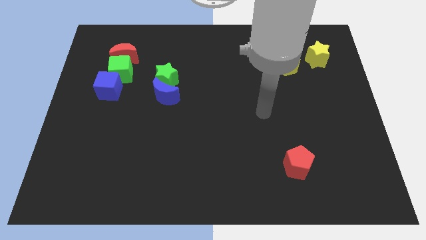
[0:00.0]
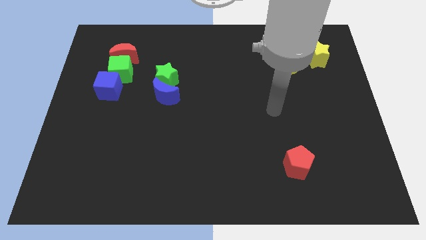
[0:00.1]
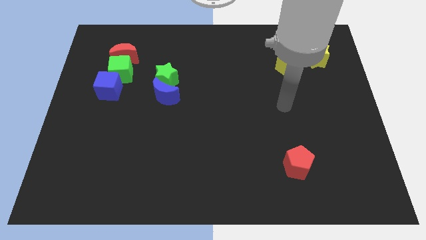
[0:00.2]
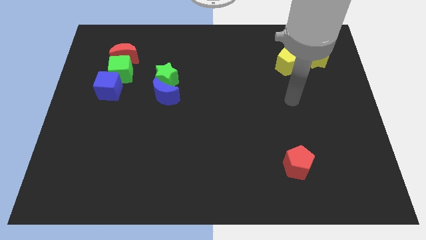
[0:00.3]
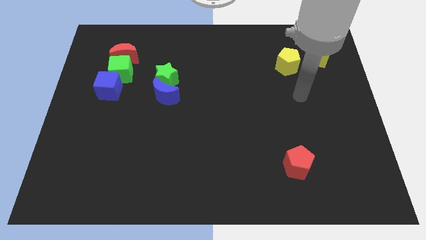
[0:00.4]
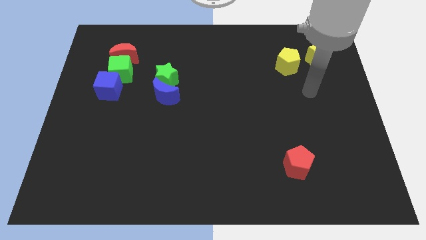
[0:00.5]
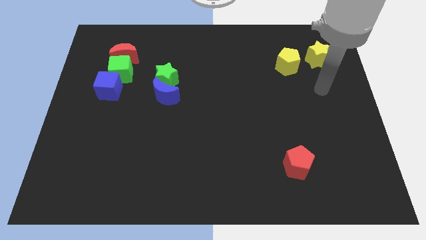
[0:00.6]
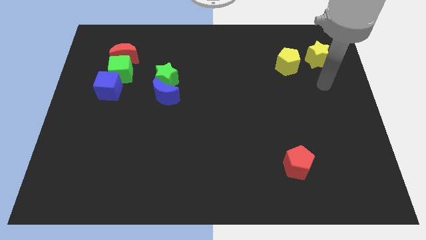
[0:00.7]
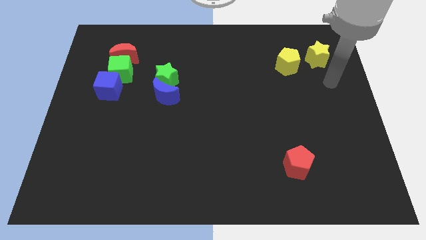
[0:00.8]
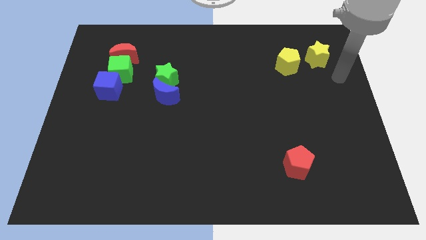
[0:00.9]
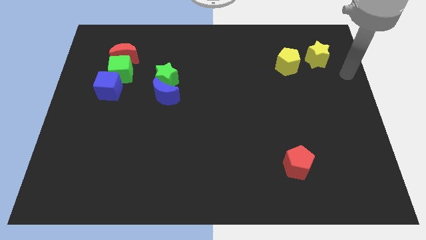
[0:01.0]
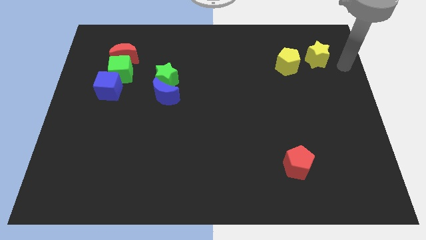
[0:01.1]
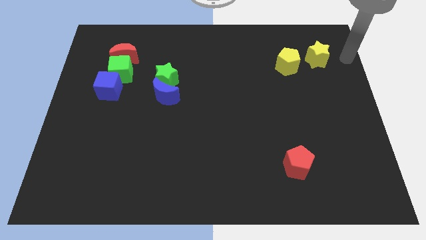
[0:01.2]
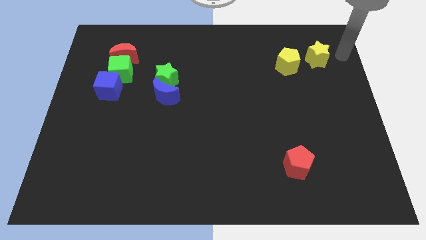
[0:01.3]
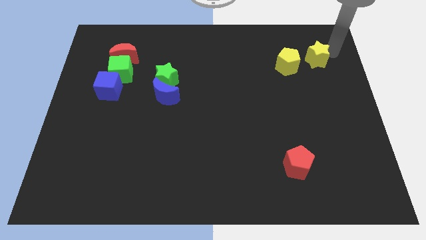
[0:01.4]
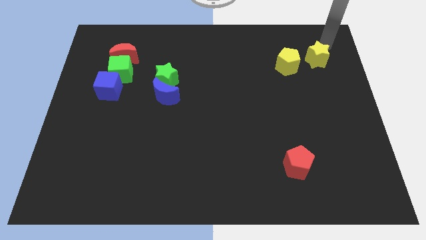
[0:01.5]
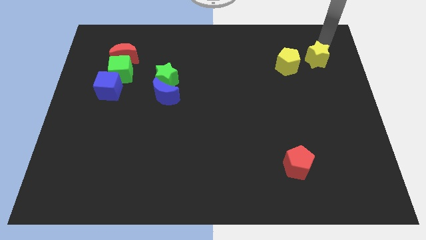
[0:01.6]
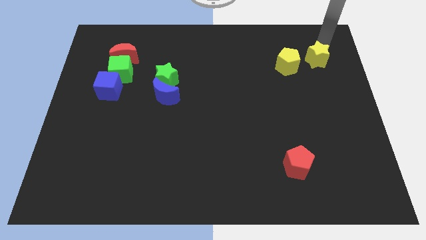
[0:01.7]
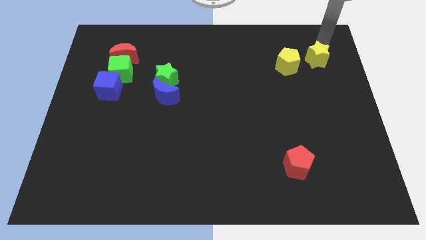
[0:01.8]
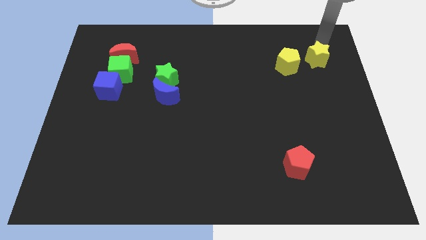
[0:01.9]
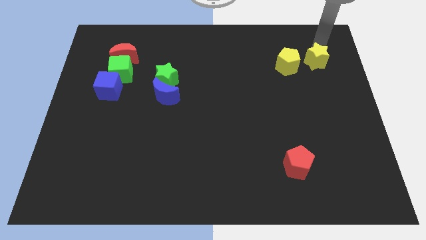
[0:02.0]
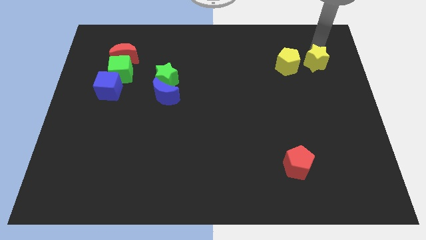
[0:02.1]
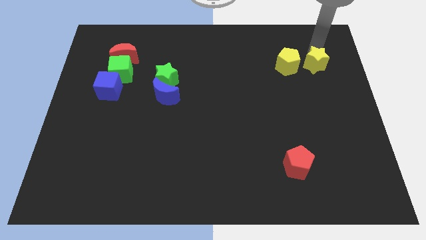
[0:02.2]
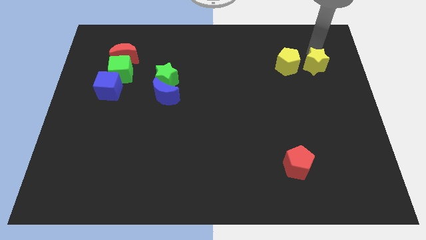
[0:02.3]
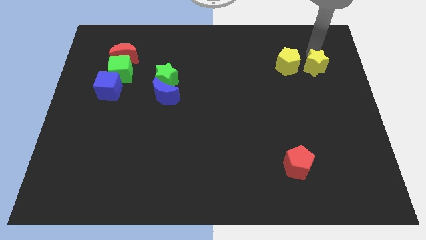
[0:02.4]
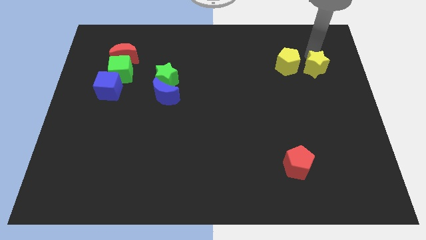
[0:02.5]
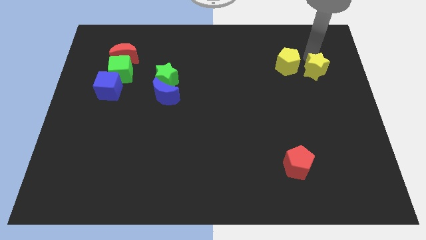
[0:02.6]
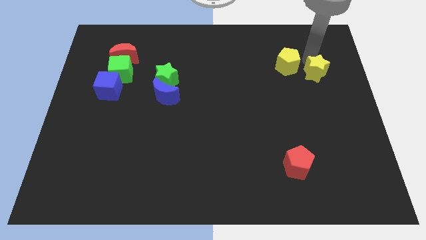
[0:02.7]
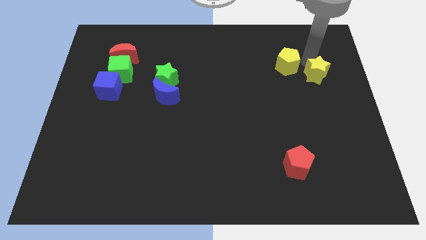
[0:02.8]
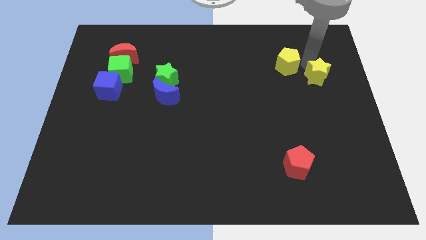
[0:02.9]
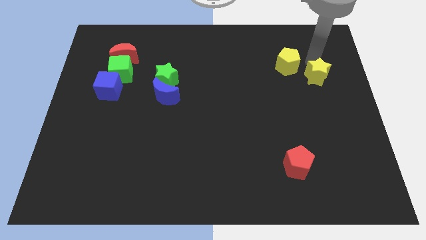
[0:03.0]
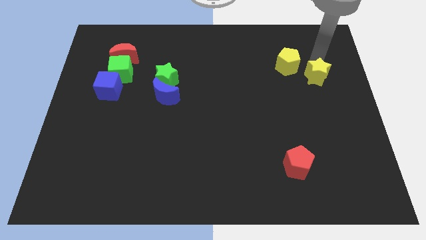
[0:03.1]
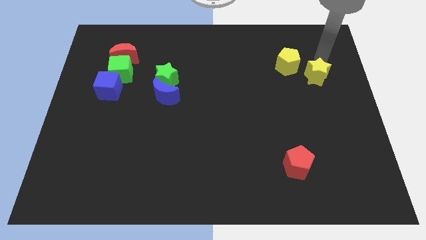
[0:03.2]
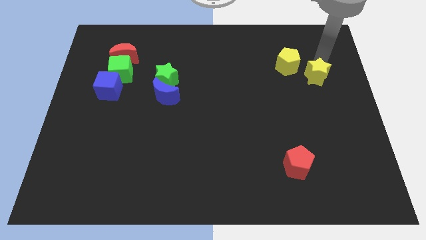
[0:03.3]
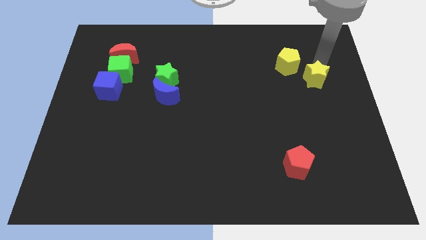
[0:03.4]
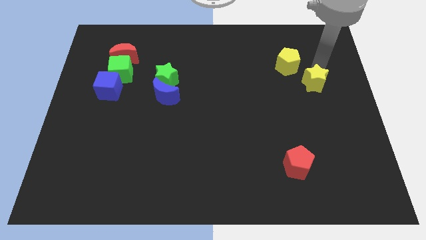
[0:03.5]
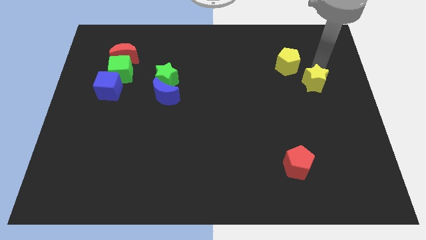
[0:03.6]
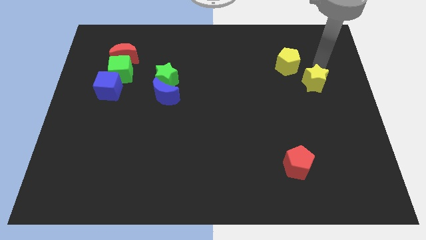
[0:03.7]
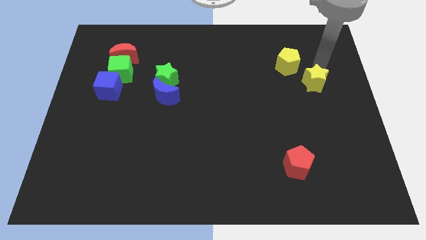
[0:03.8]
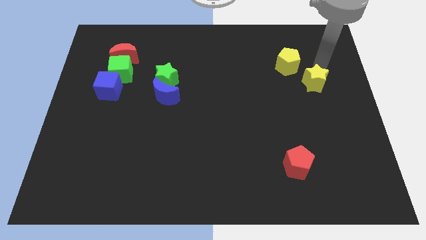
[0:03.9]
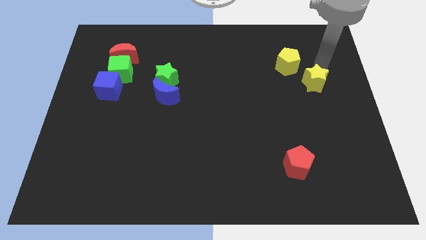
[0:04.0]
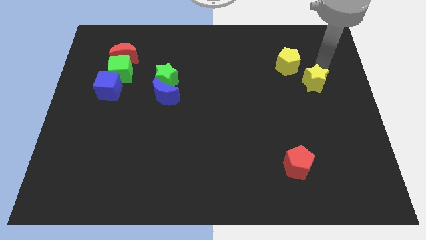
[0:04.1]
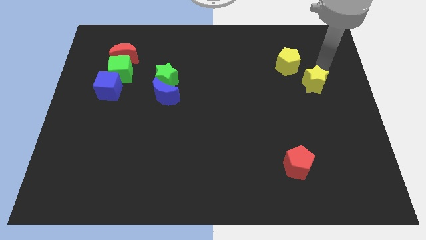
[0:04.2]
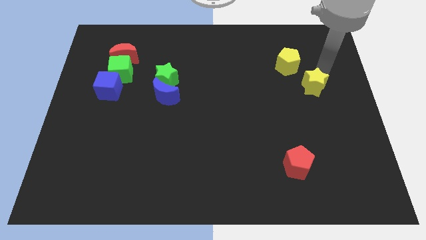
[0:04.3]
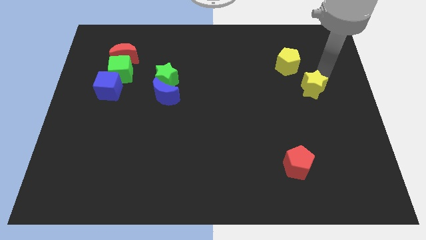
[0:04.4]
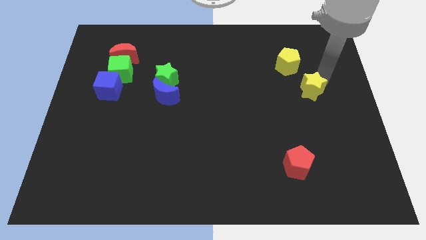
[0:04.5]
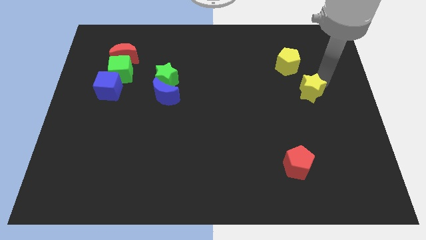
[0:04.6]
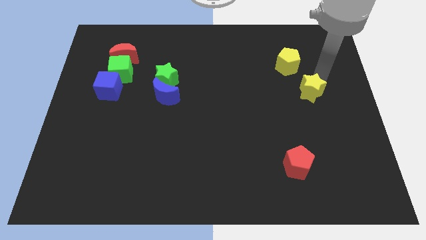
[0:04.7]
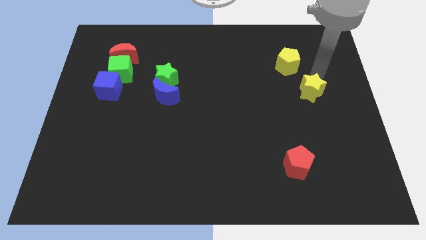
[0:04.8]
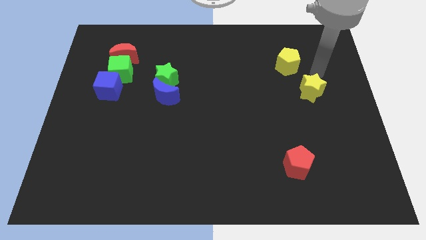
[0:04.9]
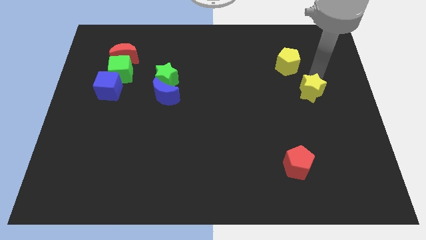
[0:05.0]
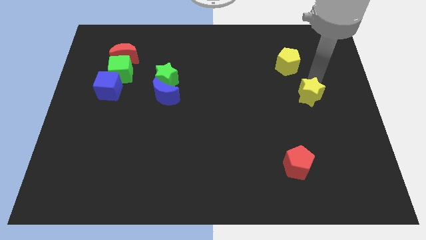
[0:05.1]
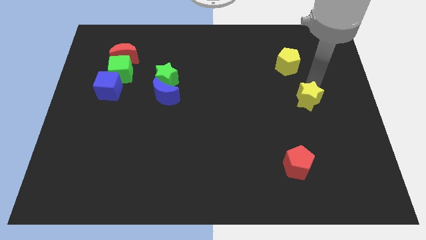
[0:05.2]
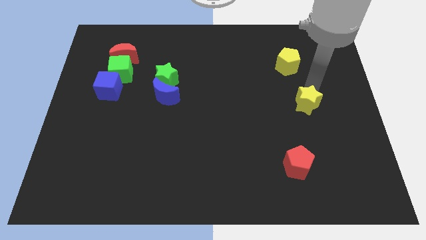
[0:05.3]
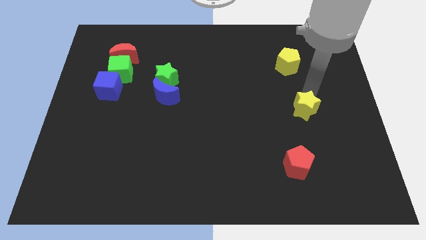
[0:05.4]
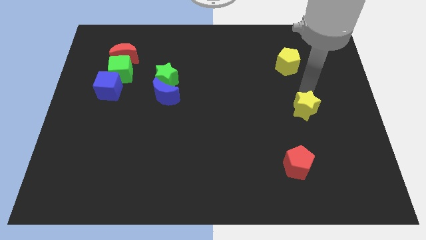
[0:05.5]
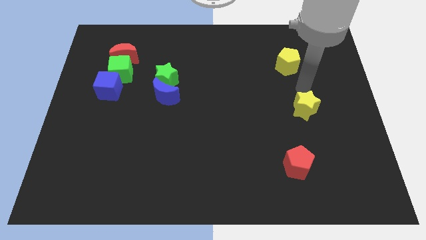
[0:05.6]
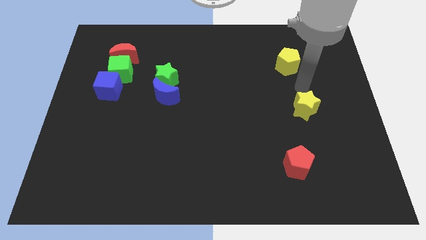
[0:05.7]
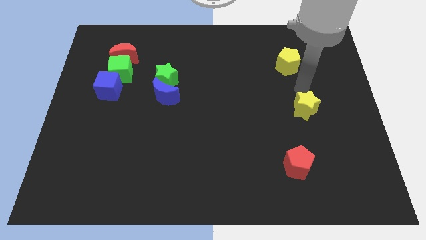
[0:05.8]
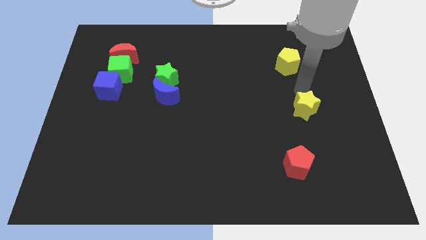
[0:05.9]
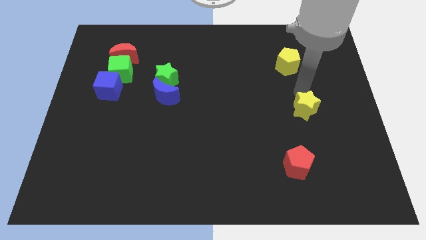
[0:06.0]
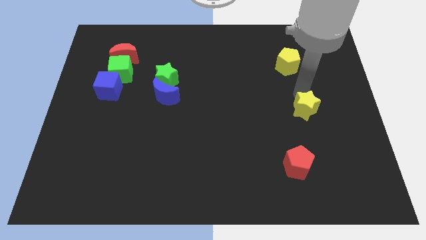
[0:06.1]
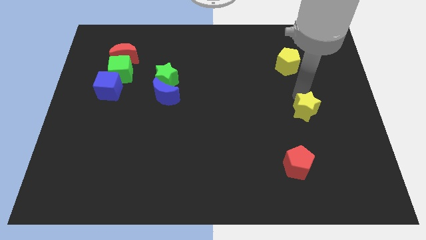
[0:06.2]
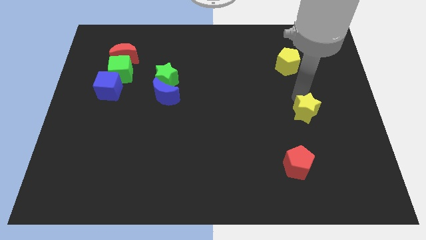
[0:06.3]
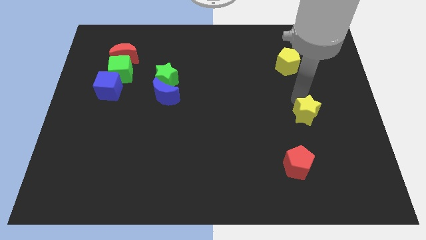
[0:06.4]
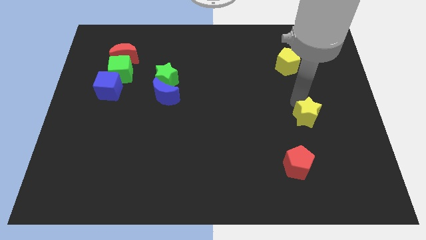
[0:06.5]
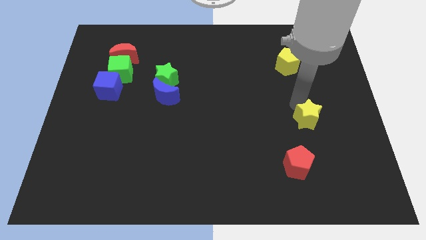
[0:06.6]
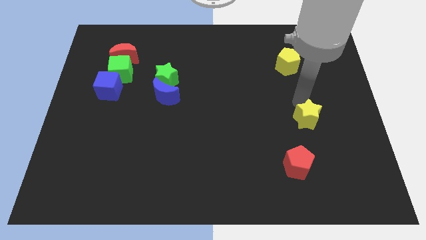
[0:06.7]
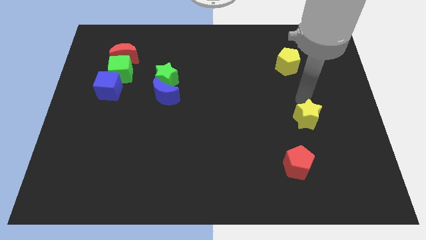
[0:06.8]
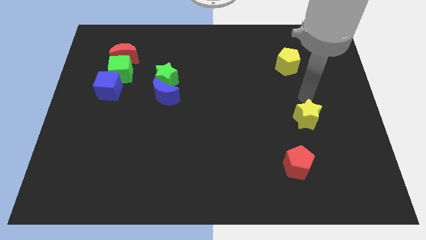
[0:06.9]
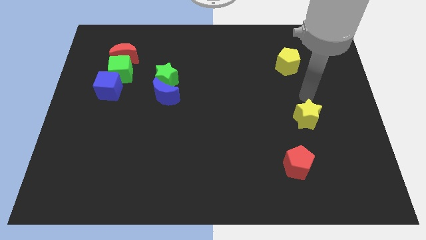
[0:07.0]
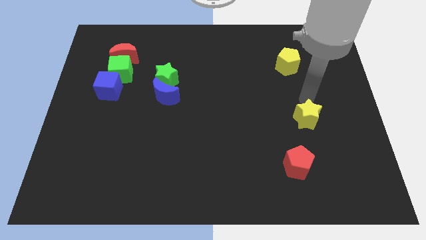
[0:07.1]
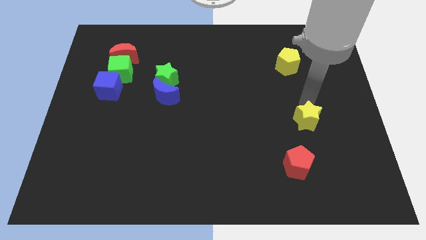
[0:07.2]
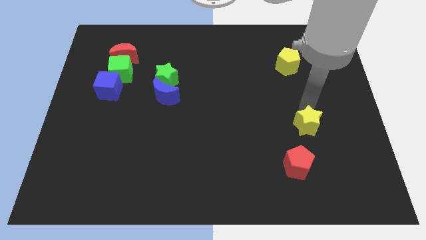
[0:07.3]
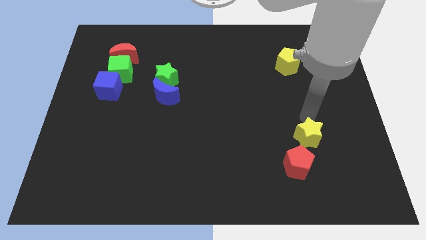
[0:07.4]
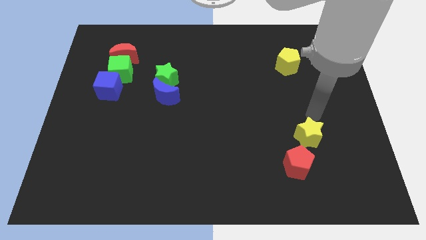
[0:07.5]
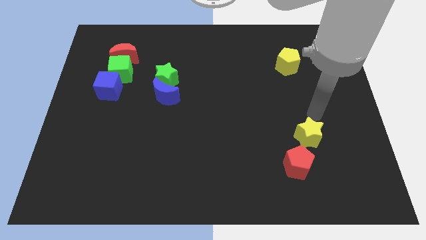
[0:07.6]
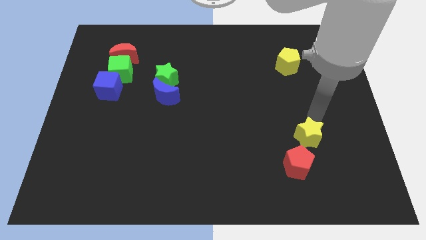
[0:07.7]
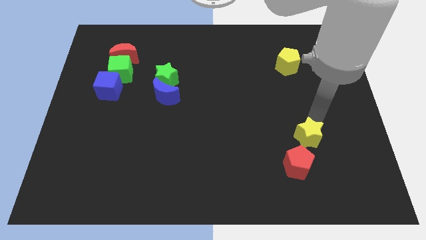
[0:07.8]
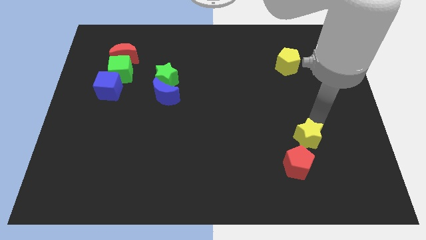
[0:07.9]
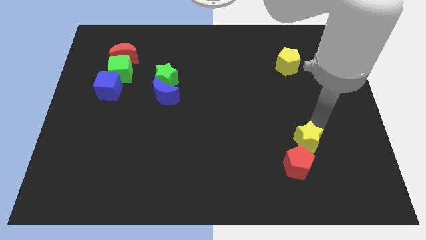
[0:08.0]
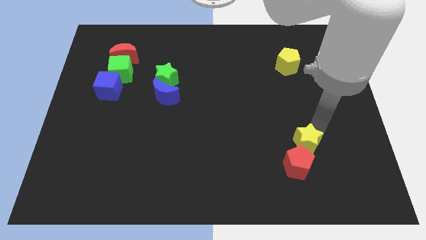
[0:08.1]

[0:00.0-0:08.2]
move the yellow star close to the red pentagon
